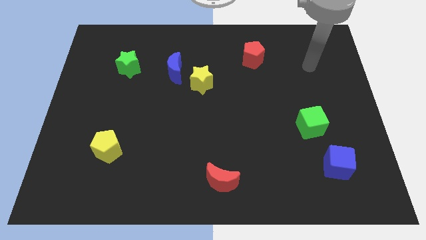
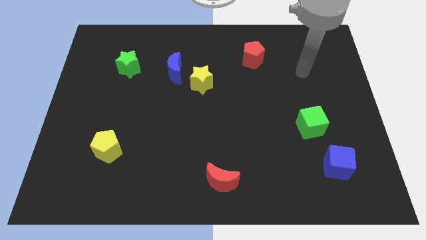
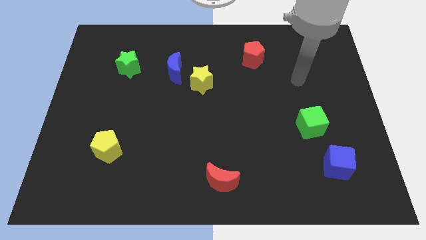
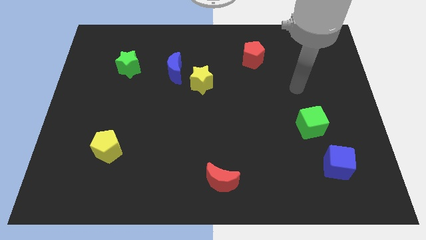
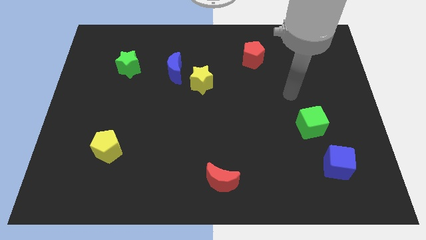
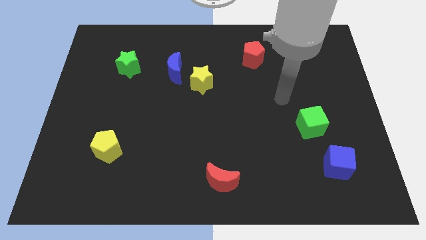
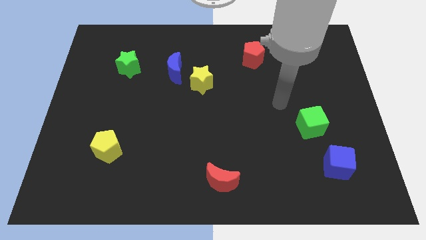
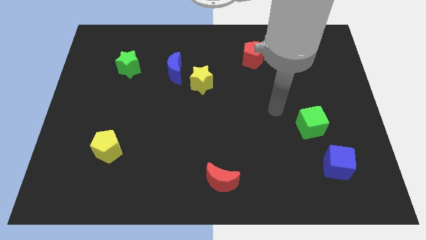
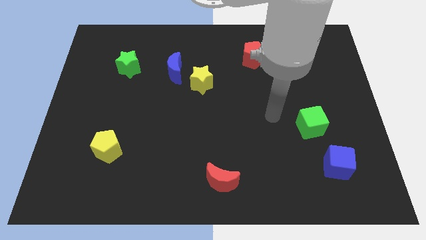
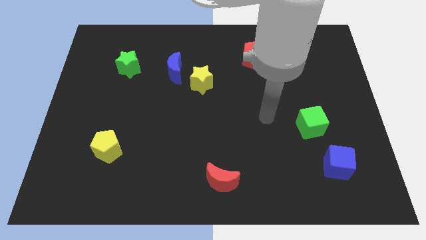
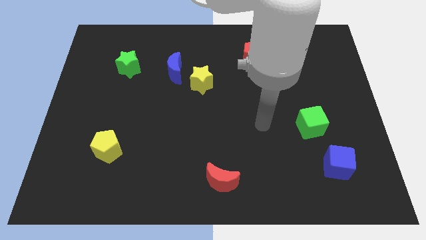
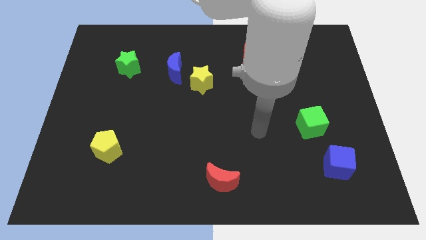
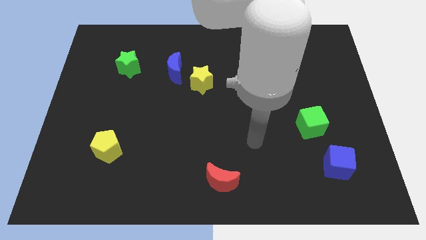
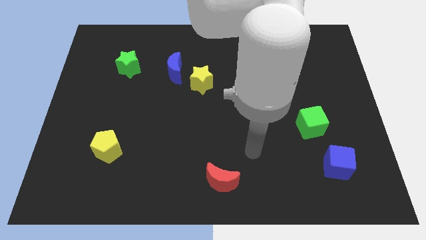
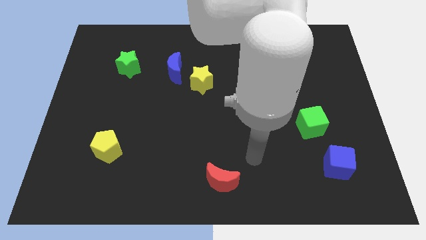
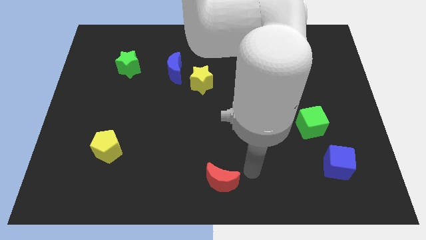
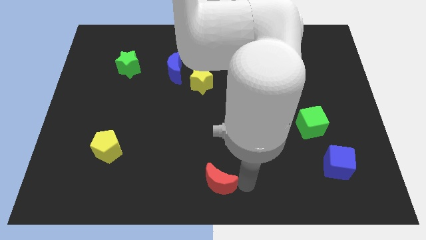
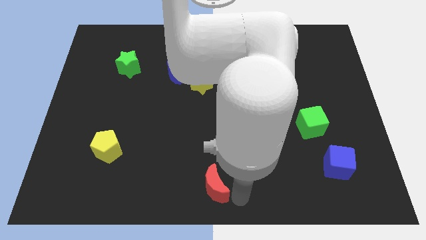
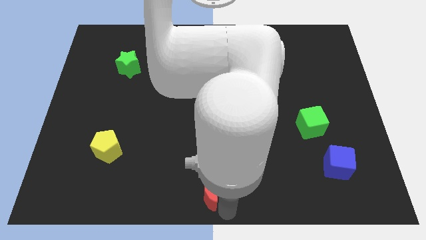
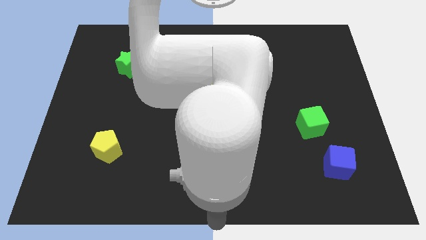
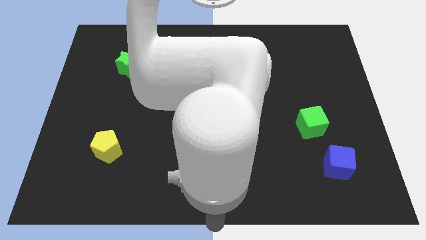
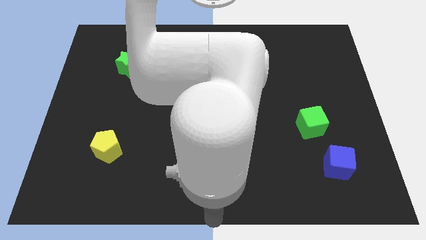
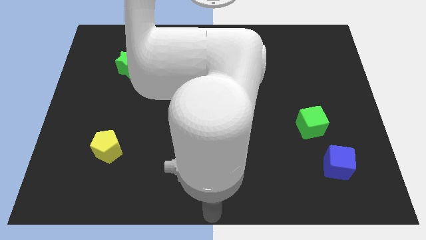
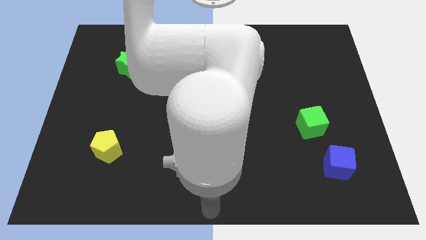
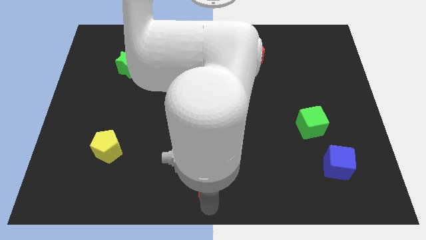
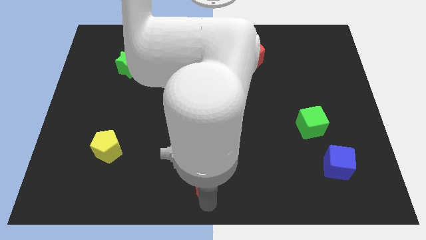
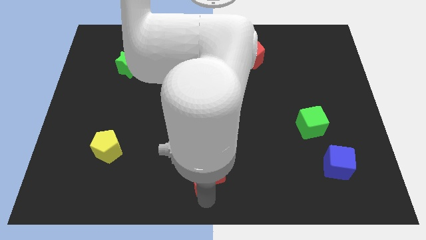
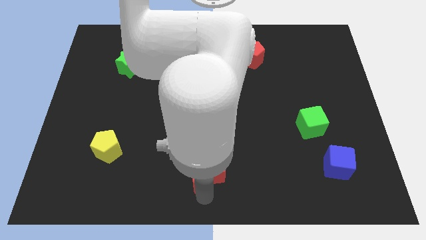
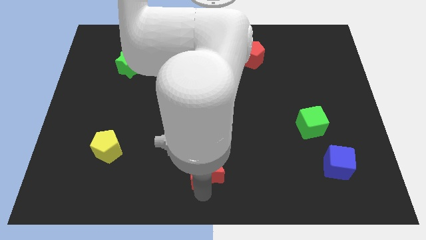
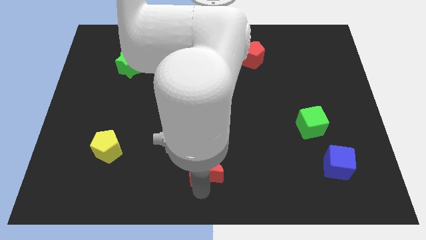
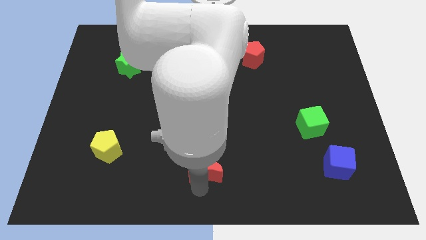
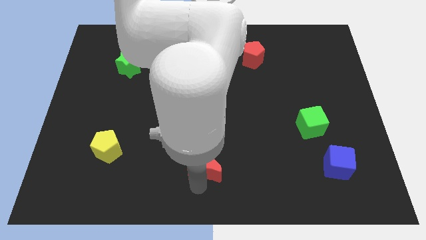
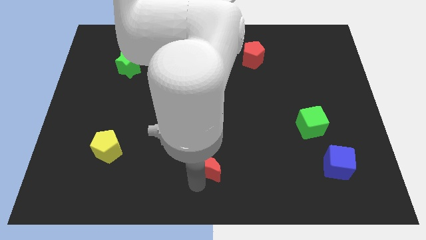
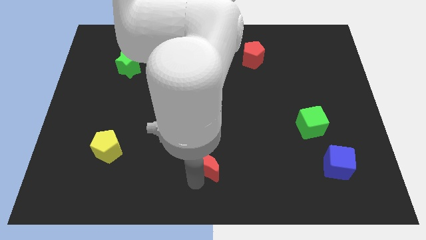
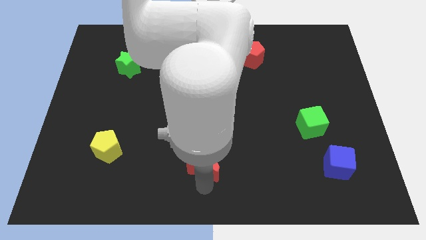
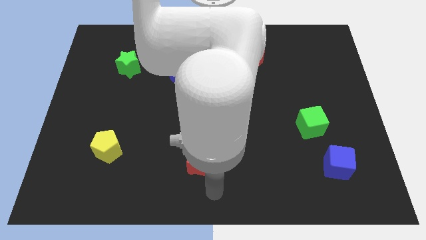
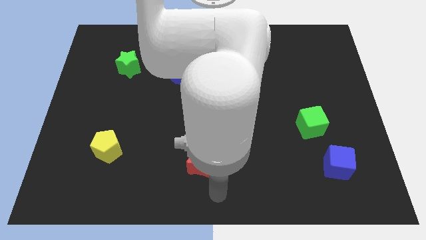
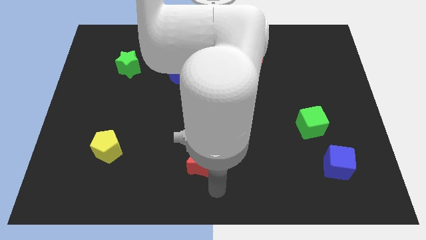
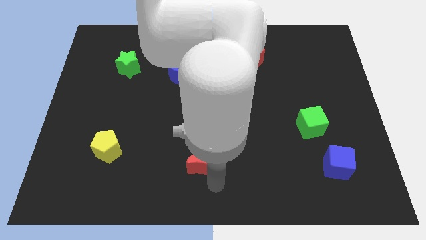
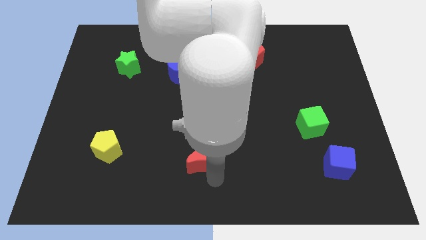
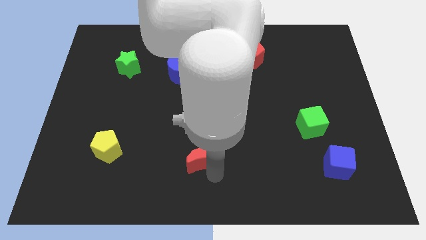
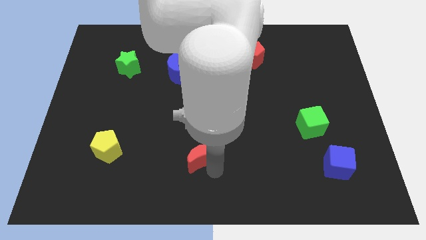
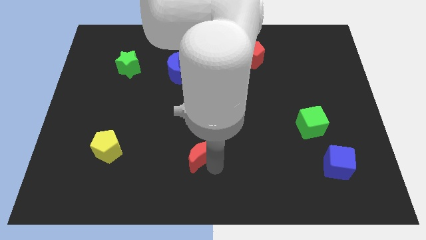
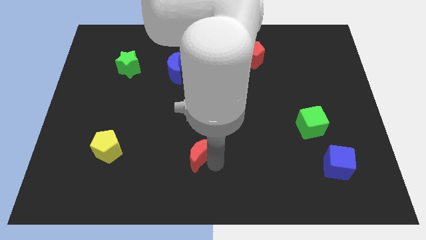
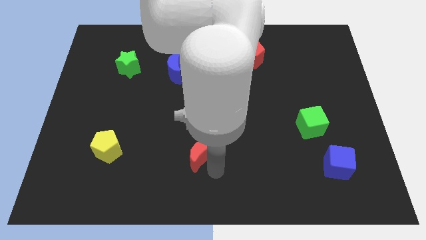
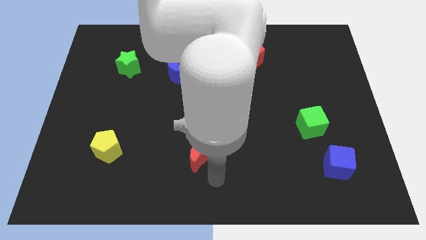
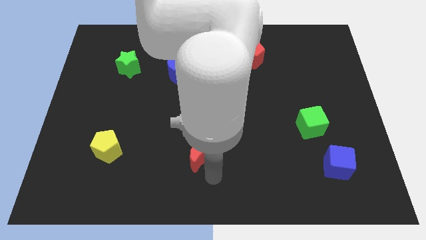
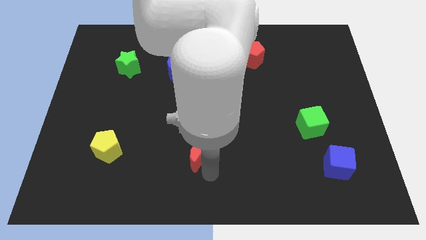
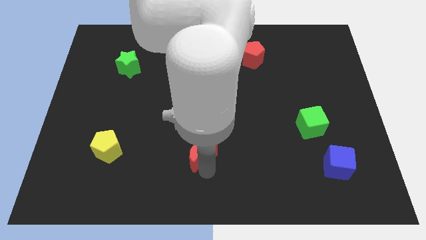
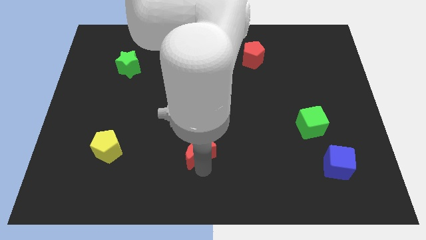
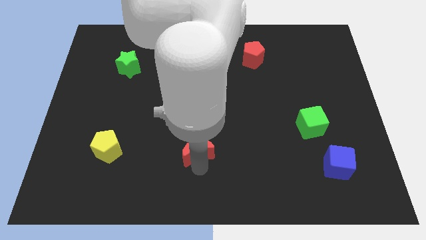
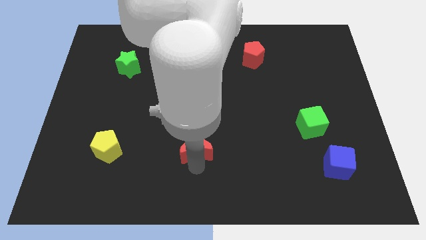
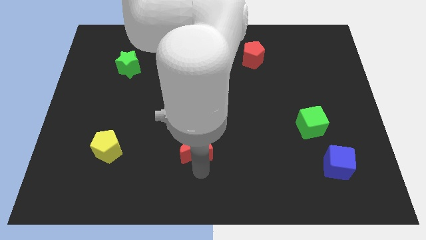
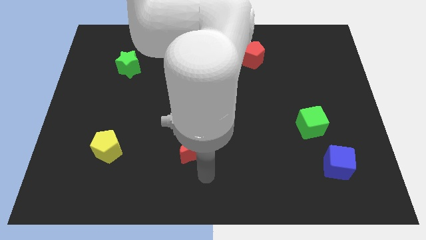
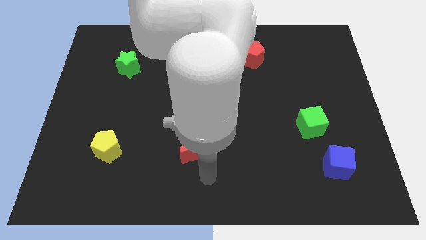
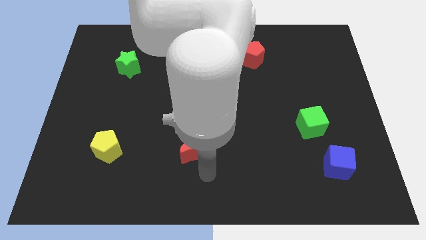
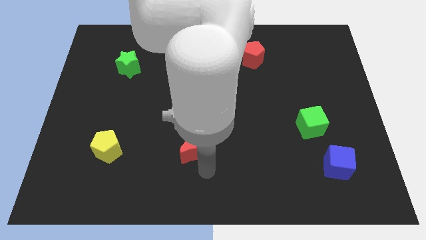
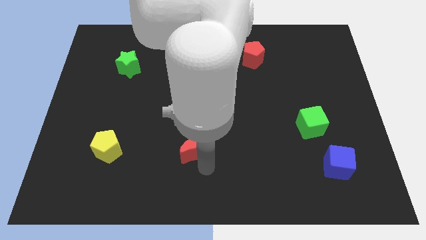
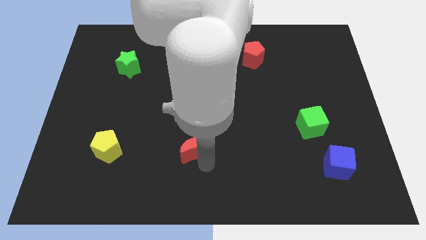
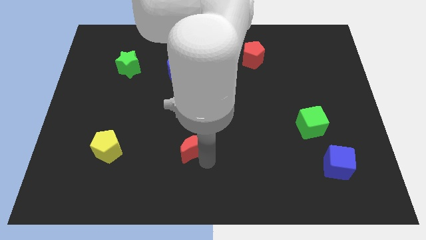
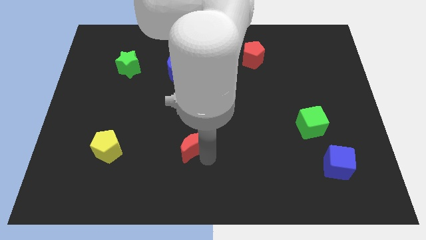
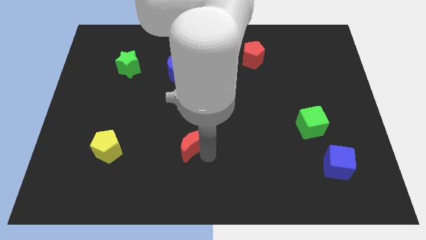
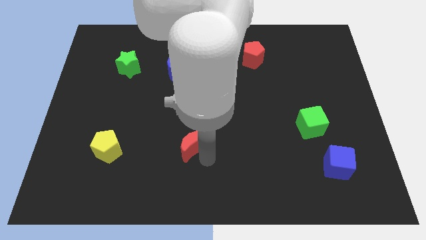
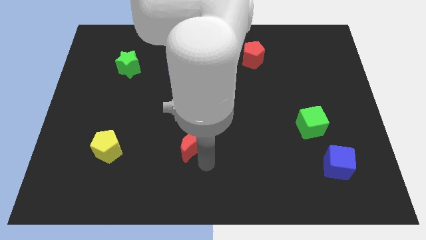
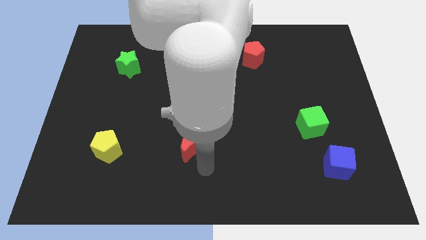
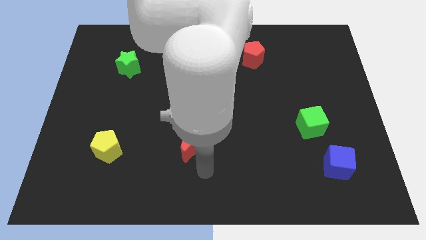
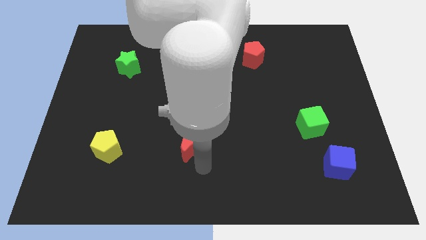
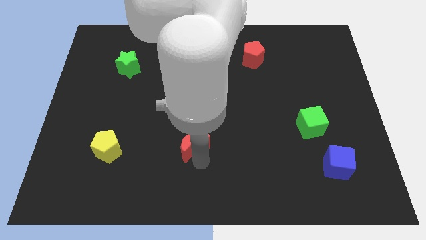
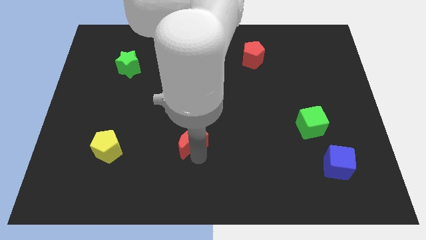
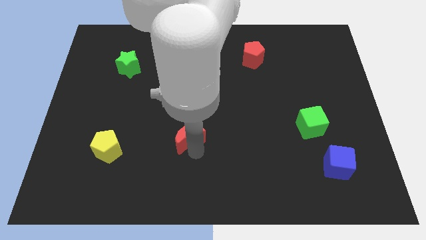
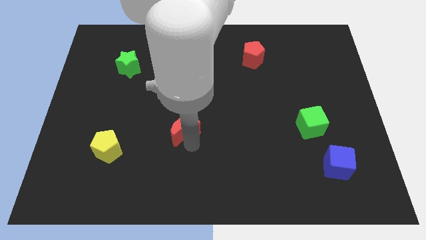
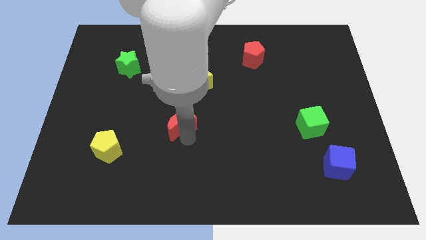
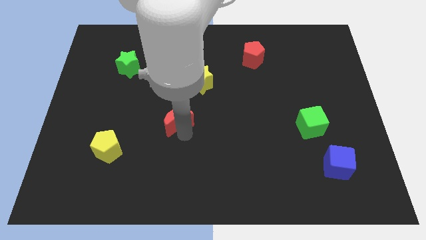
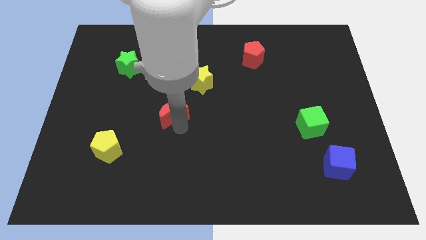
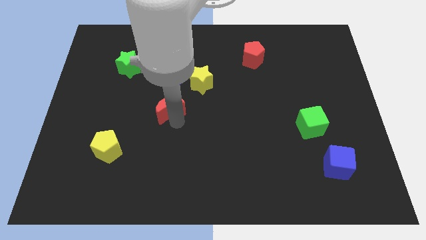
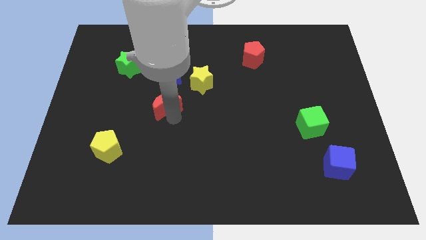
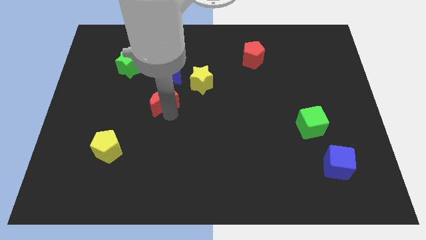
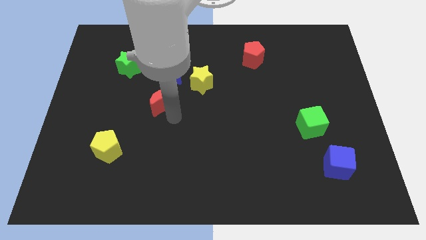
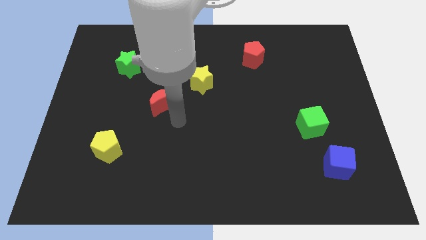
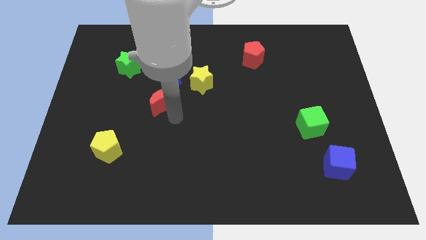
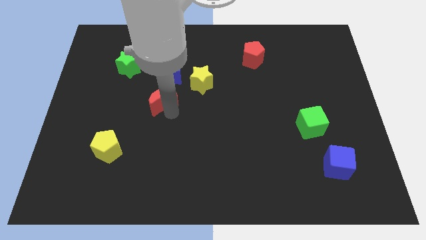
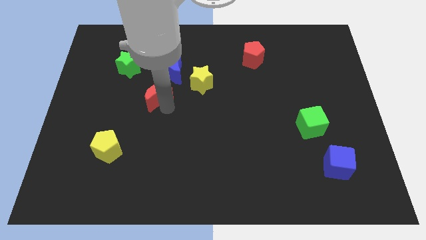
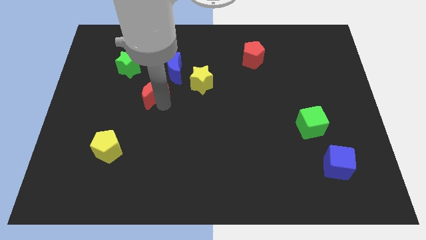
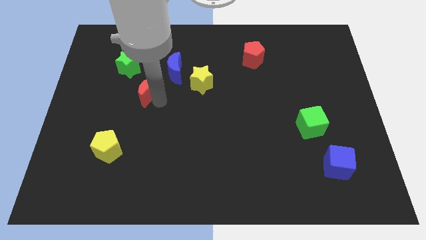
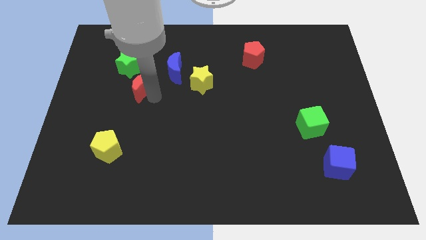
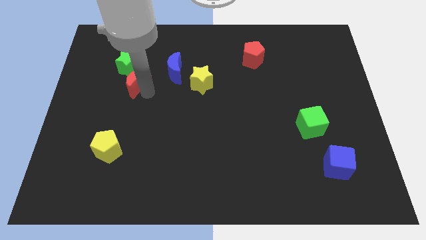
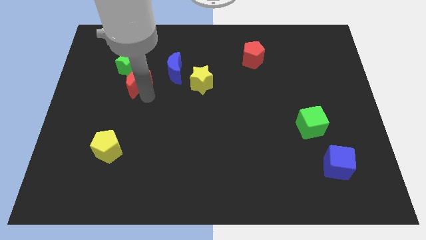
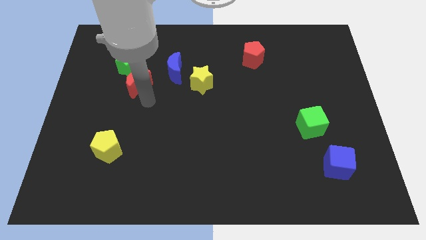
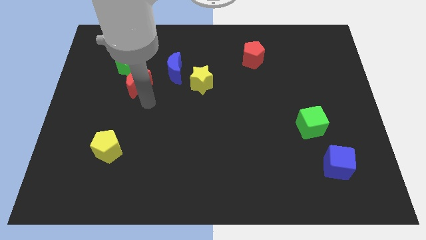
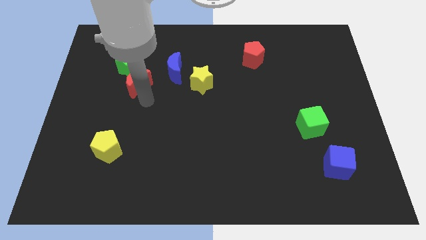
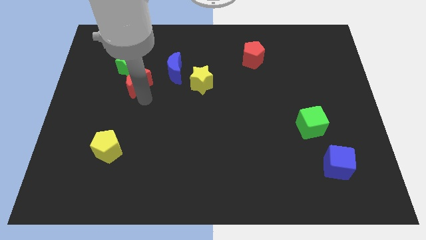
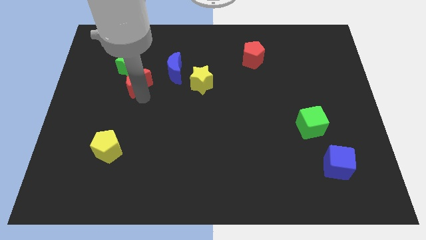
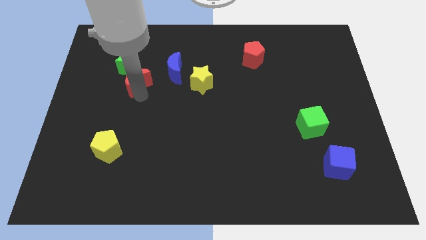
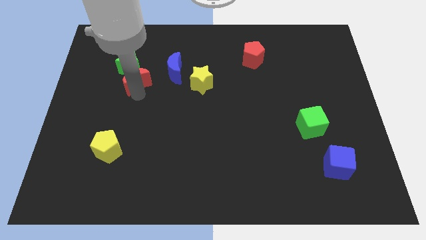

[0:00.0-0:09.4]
slide the red moon next to the green star
